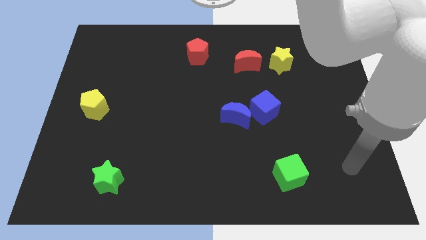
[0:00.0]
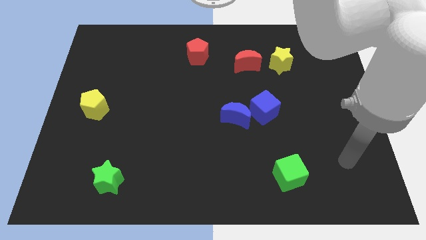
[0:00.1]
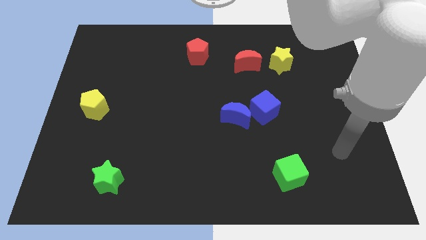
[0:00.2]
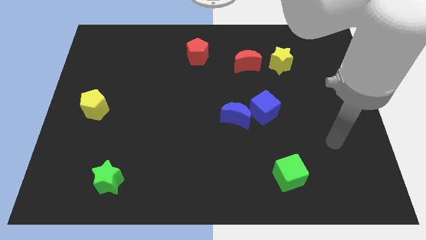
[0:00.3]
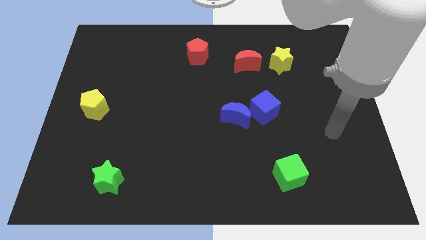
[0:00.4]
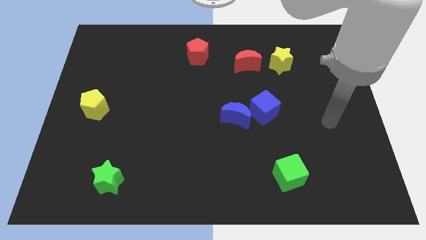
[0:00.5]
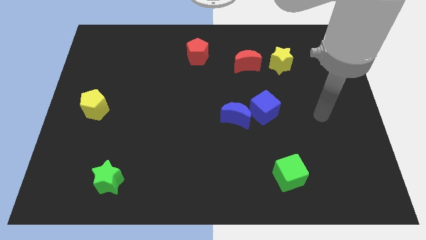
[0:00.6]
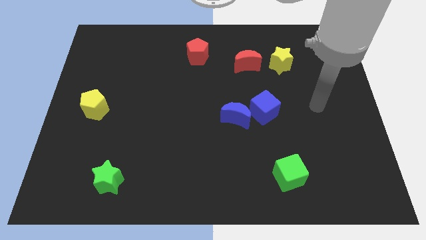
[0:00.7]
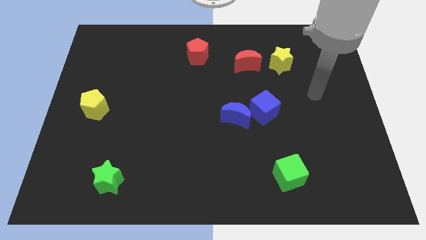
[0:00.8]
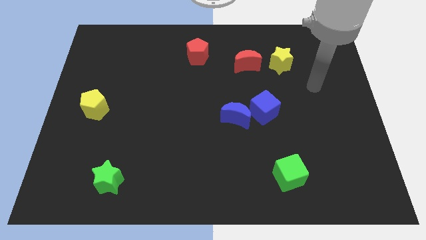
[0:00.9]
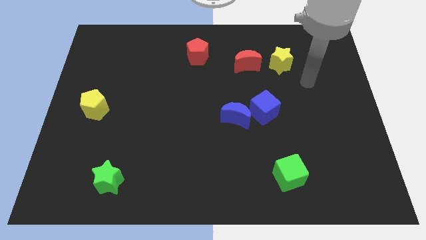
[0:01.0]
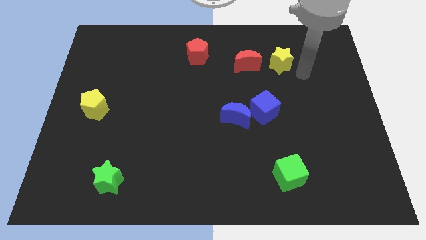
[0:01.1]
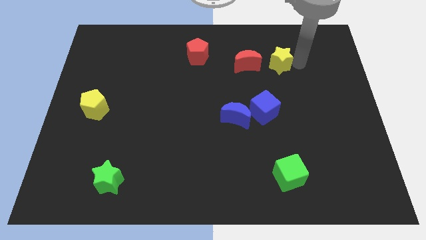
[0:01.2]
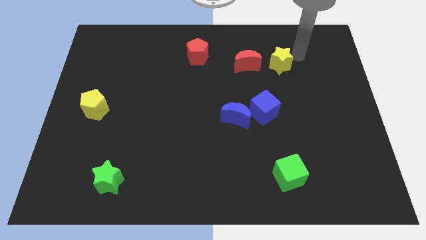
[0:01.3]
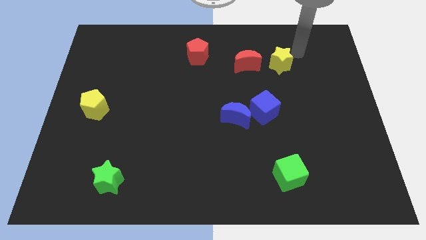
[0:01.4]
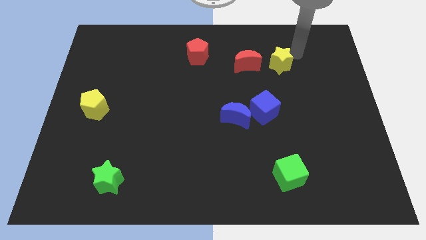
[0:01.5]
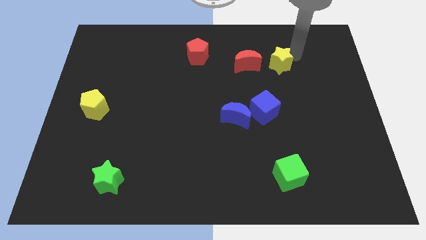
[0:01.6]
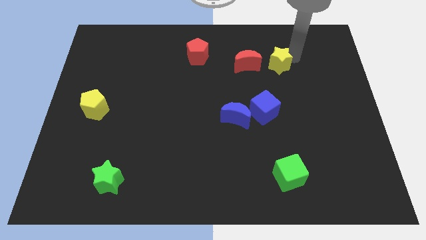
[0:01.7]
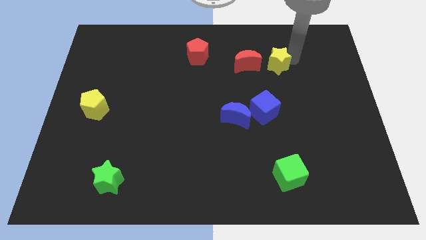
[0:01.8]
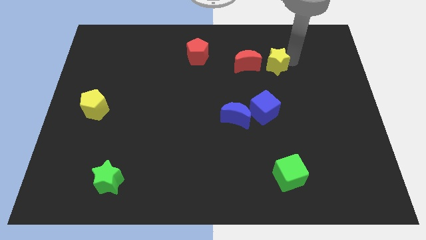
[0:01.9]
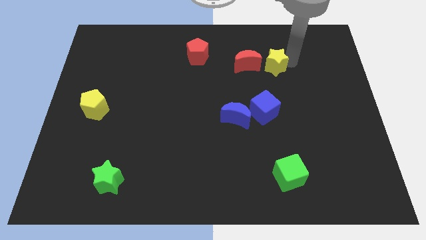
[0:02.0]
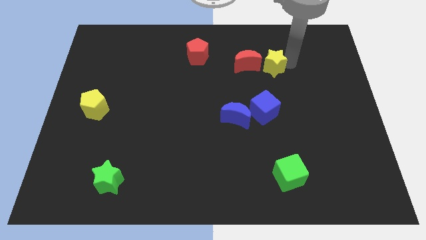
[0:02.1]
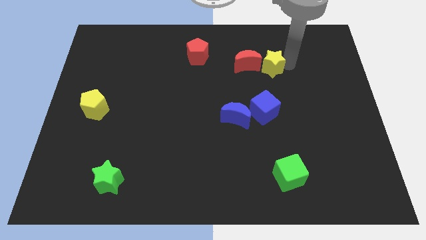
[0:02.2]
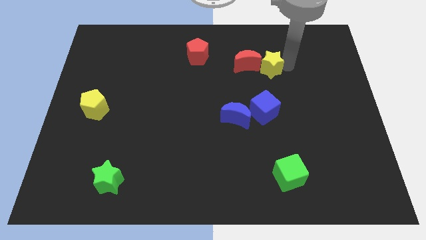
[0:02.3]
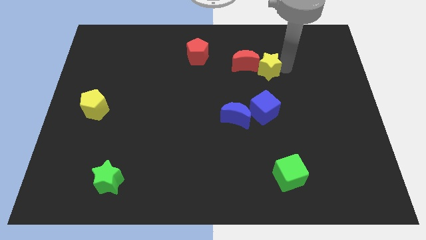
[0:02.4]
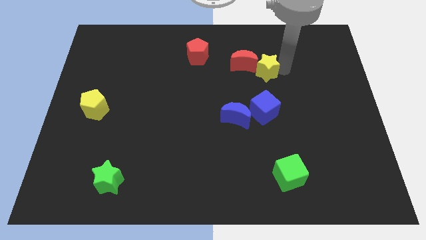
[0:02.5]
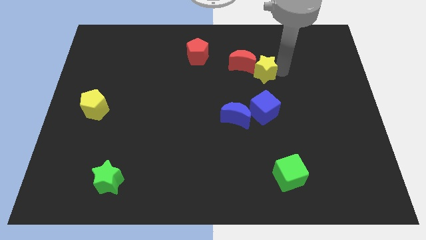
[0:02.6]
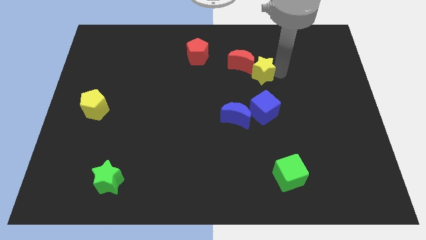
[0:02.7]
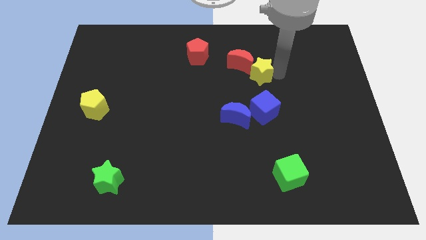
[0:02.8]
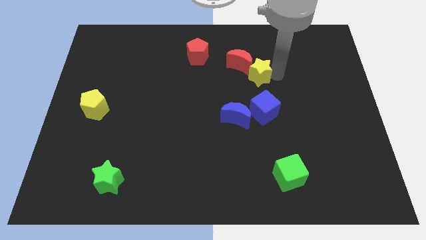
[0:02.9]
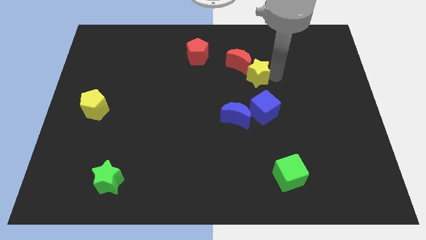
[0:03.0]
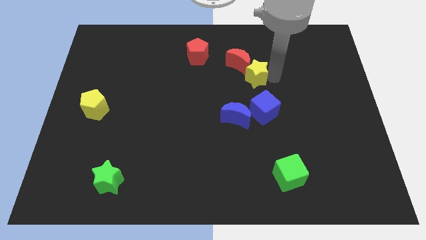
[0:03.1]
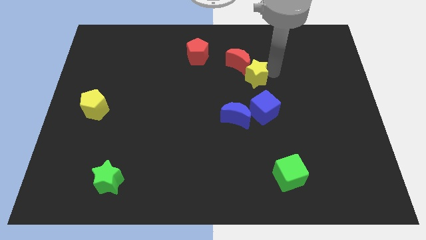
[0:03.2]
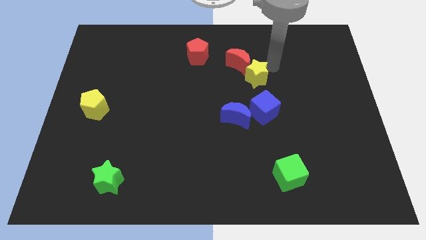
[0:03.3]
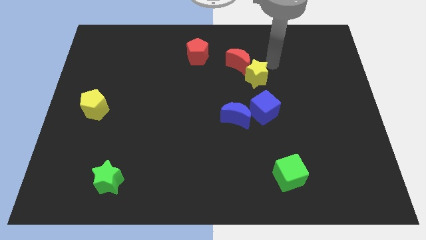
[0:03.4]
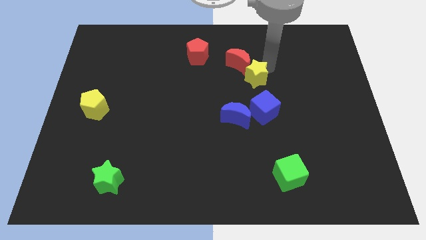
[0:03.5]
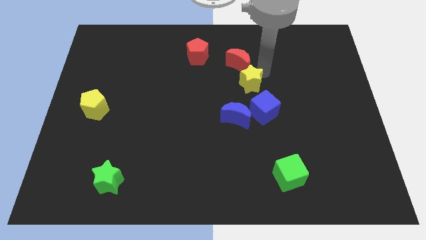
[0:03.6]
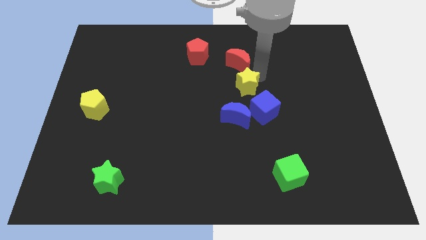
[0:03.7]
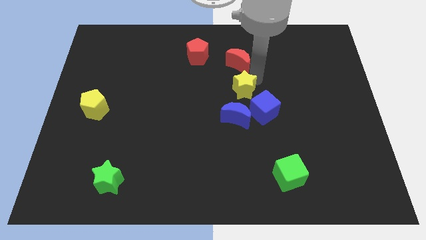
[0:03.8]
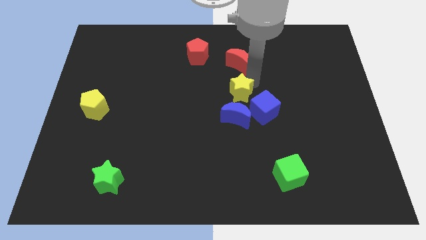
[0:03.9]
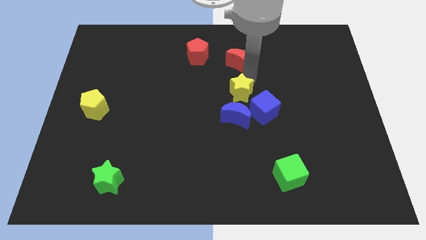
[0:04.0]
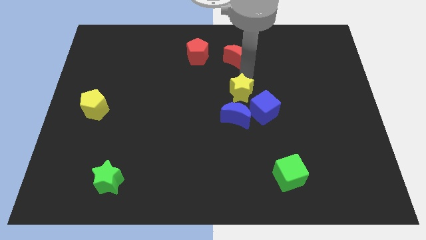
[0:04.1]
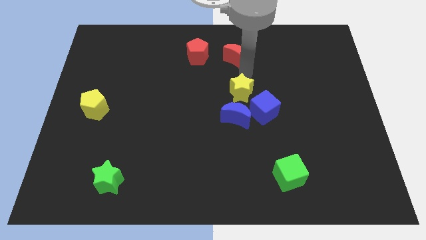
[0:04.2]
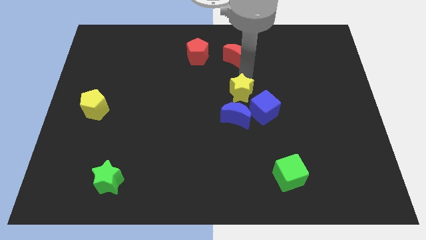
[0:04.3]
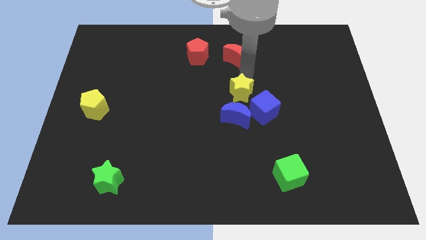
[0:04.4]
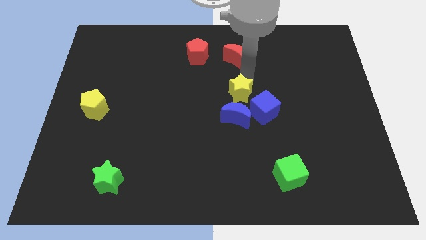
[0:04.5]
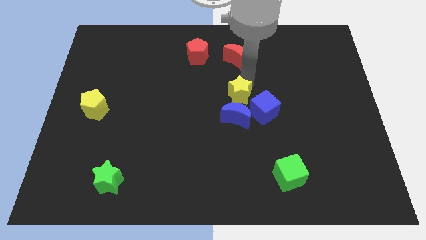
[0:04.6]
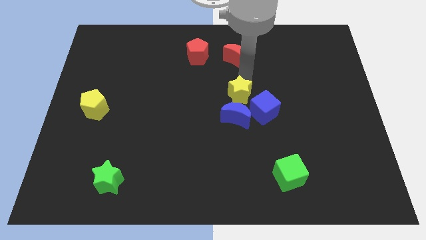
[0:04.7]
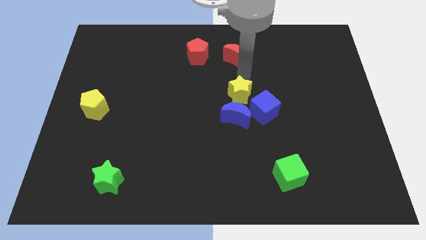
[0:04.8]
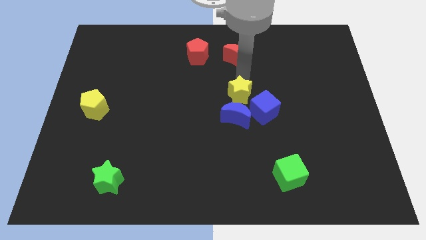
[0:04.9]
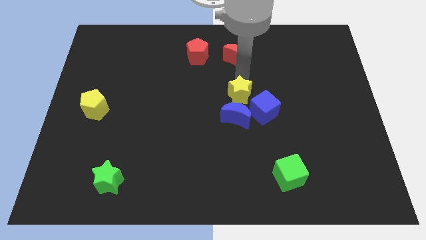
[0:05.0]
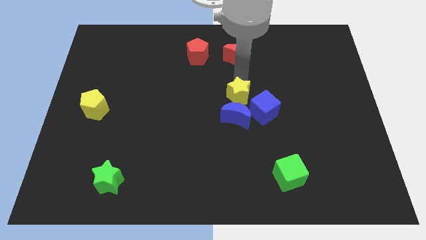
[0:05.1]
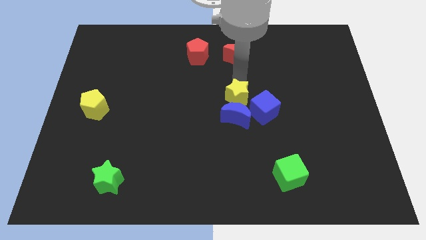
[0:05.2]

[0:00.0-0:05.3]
slide the yellow star next to the blue moon

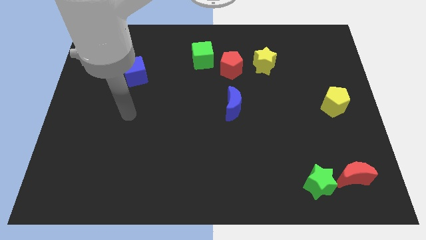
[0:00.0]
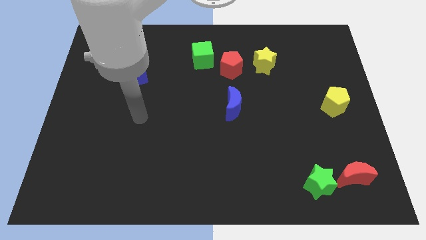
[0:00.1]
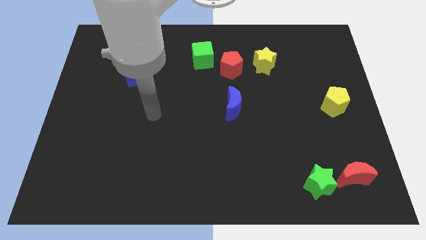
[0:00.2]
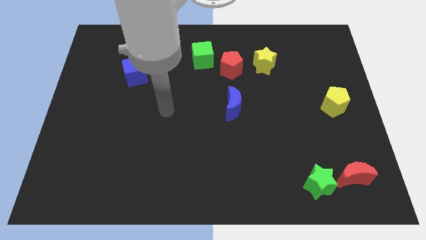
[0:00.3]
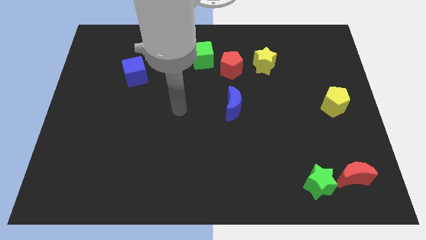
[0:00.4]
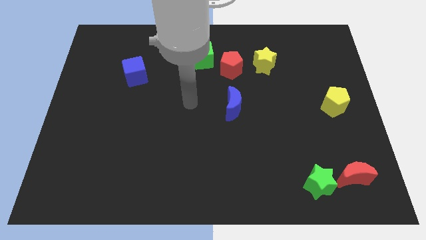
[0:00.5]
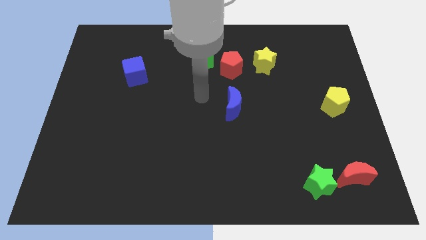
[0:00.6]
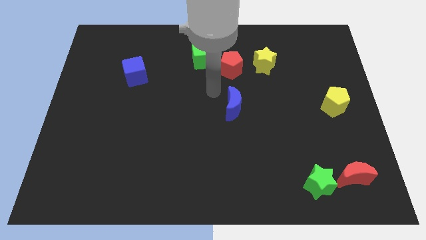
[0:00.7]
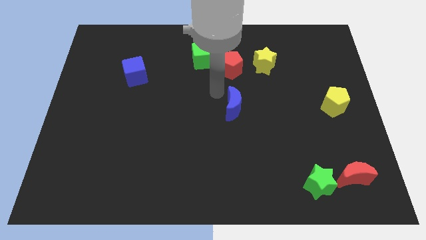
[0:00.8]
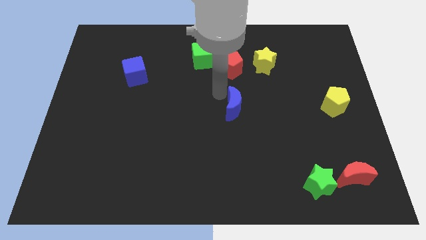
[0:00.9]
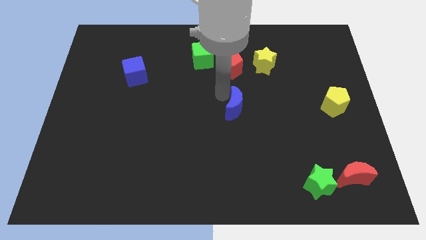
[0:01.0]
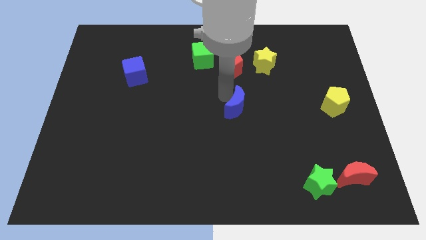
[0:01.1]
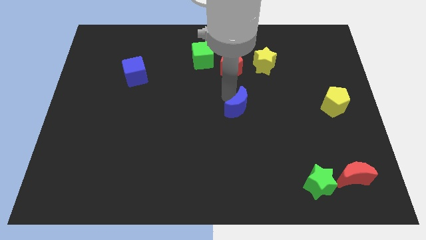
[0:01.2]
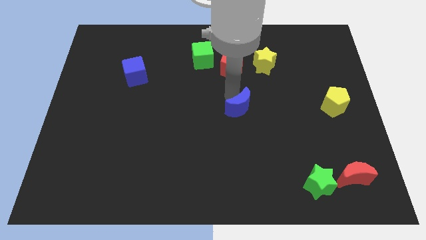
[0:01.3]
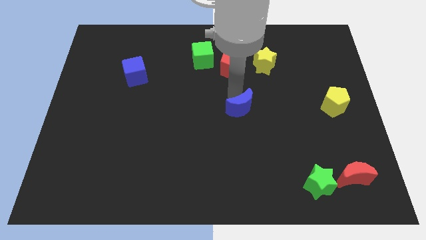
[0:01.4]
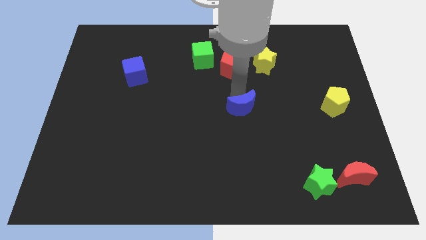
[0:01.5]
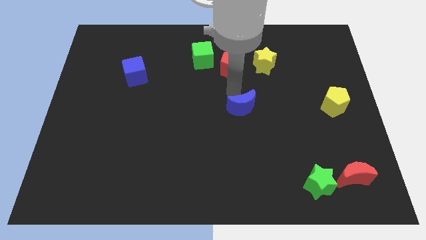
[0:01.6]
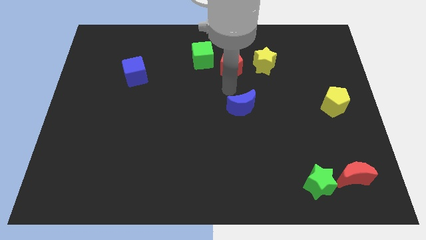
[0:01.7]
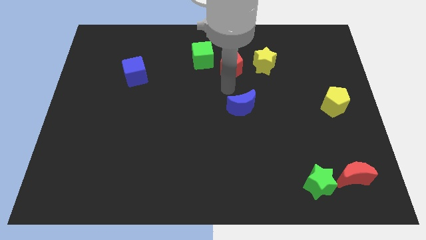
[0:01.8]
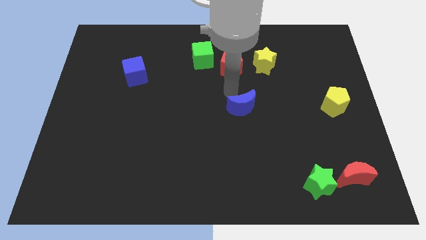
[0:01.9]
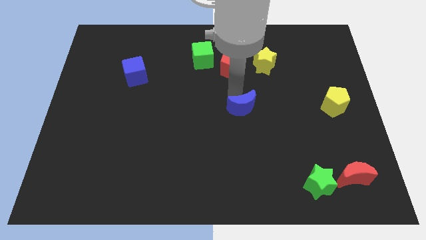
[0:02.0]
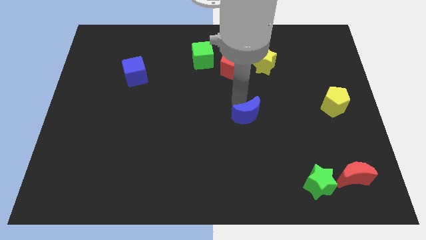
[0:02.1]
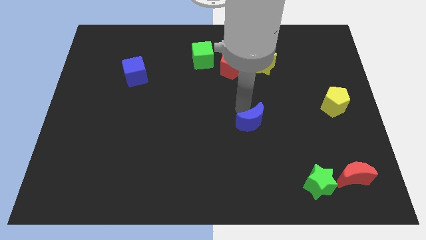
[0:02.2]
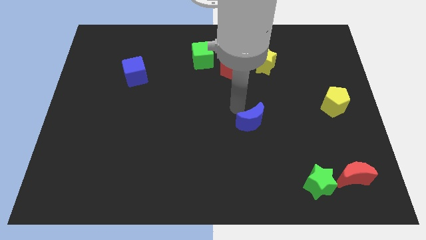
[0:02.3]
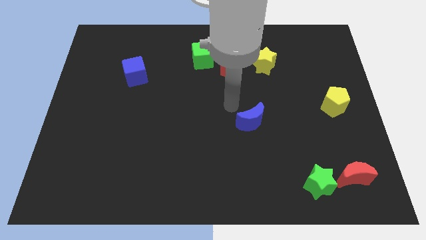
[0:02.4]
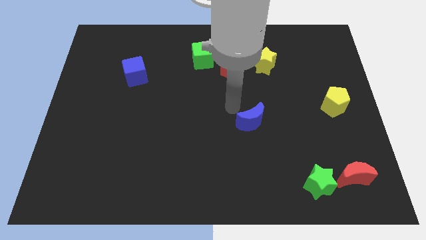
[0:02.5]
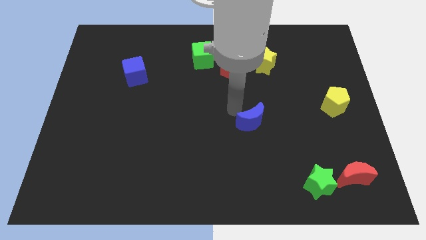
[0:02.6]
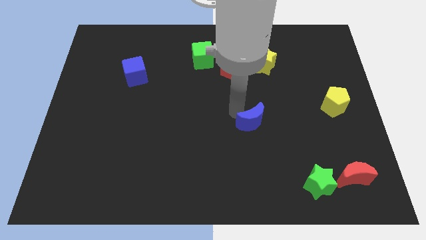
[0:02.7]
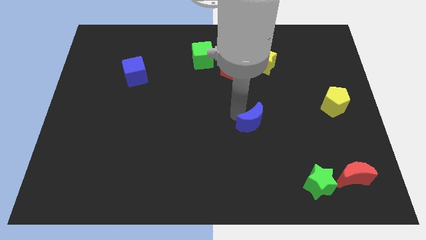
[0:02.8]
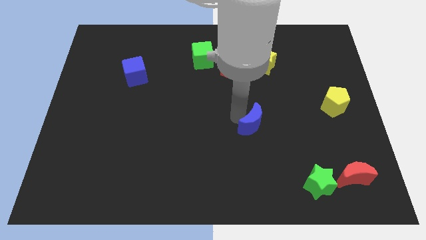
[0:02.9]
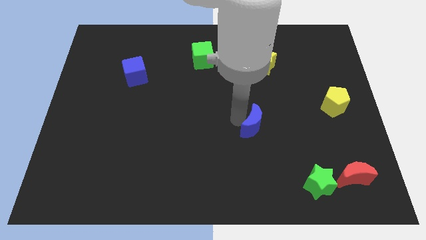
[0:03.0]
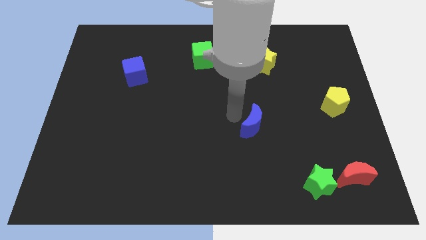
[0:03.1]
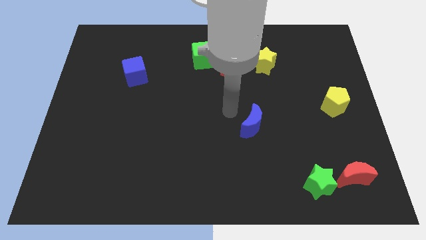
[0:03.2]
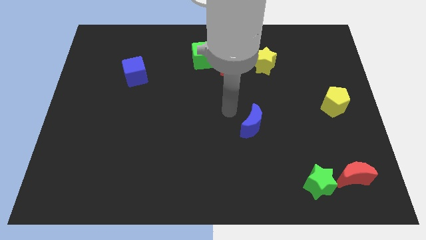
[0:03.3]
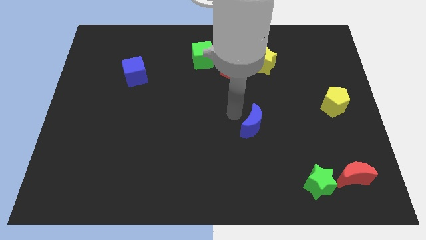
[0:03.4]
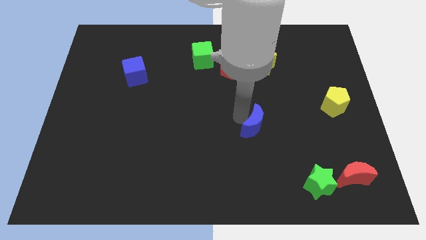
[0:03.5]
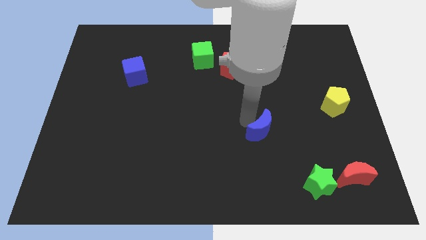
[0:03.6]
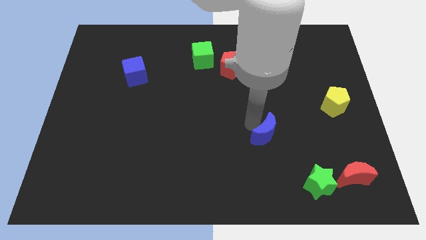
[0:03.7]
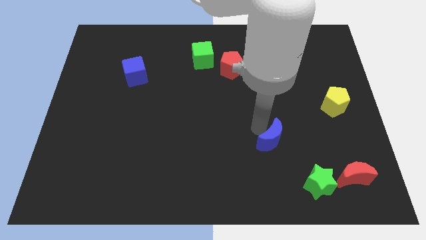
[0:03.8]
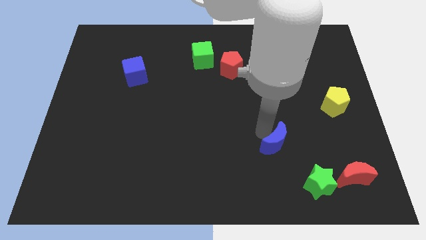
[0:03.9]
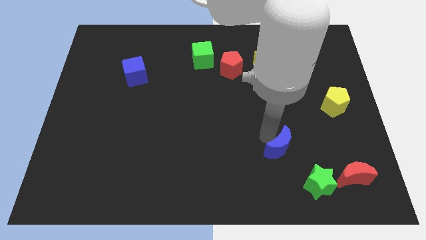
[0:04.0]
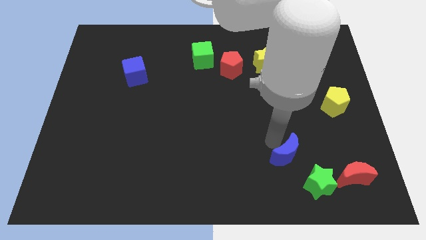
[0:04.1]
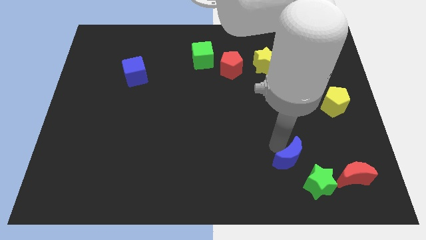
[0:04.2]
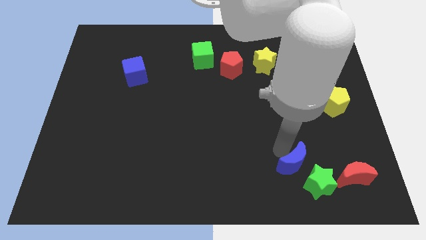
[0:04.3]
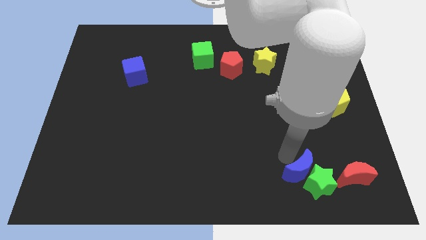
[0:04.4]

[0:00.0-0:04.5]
move the blue moon to the green star
